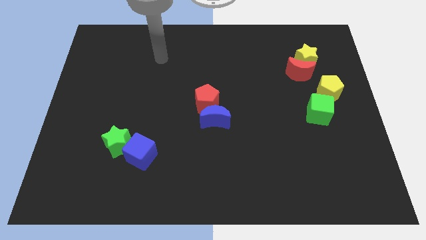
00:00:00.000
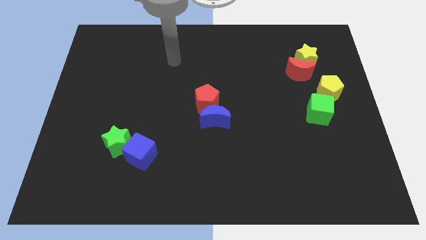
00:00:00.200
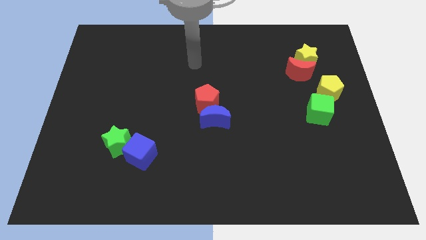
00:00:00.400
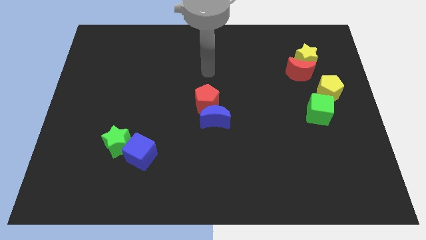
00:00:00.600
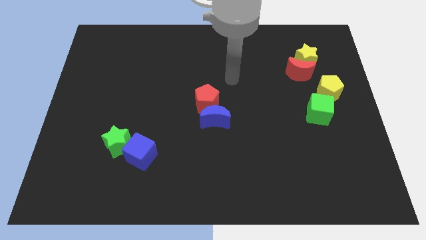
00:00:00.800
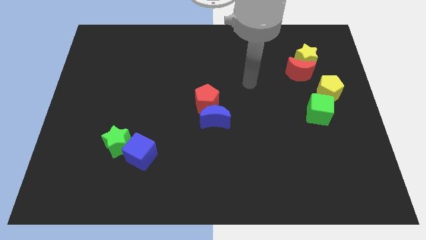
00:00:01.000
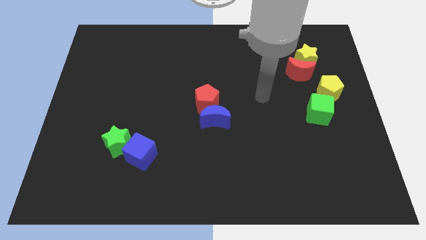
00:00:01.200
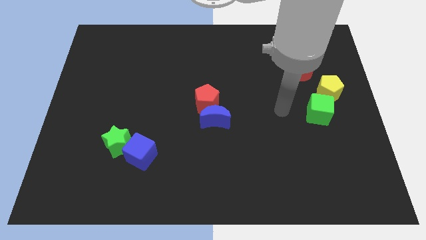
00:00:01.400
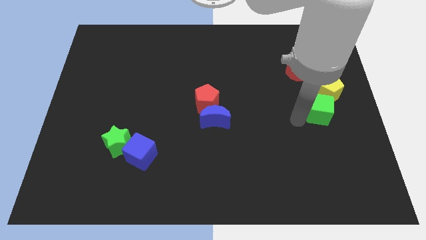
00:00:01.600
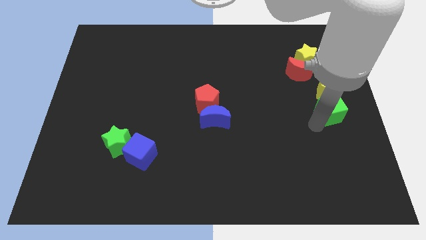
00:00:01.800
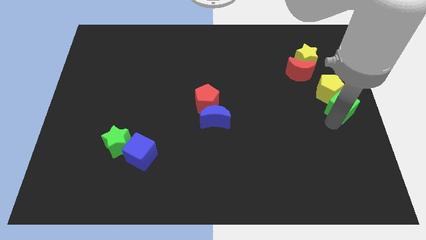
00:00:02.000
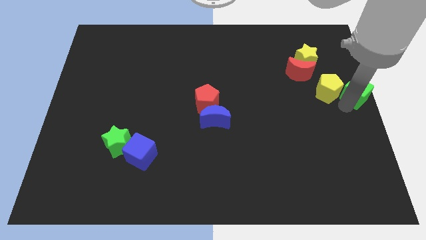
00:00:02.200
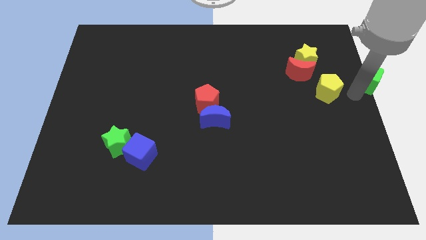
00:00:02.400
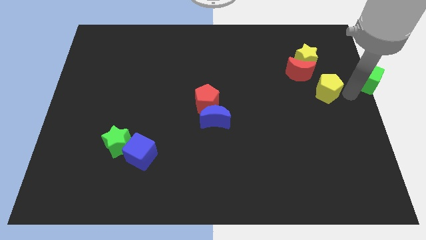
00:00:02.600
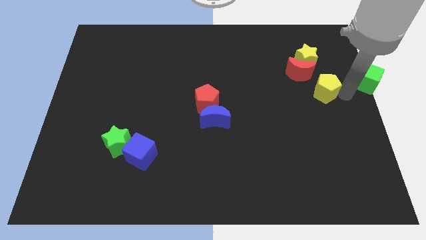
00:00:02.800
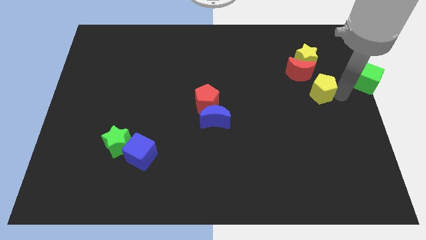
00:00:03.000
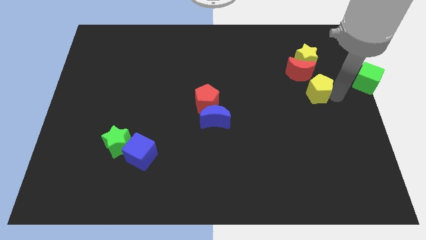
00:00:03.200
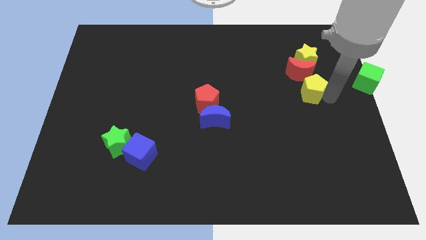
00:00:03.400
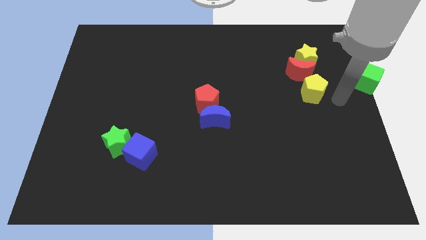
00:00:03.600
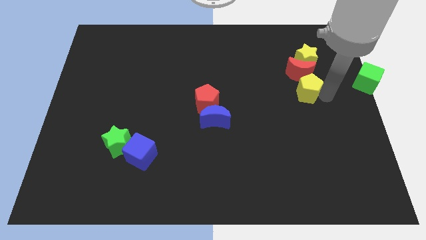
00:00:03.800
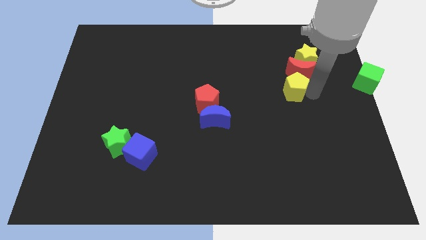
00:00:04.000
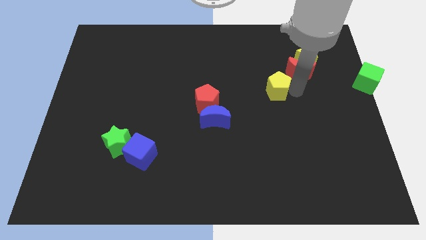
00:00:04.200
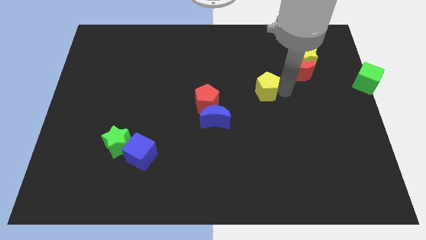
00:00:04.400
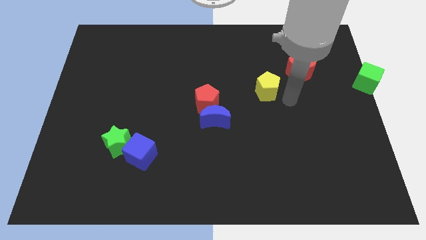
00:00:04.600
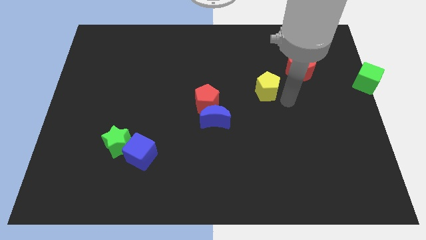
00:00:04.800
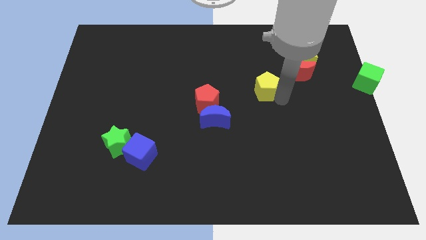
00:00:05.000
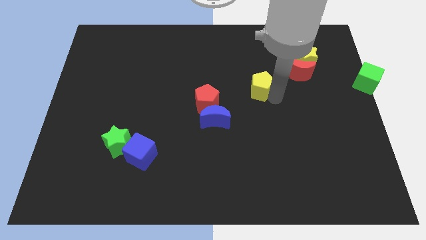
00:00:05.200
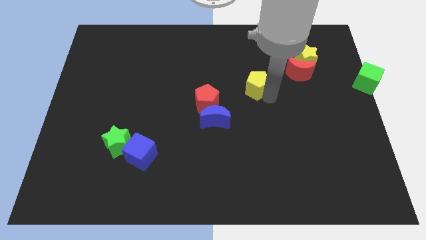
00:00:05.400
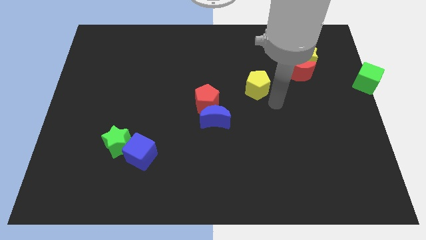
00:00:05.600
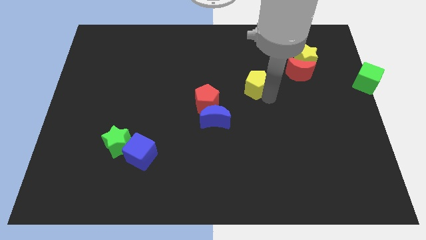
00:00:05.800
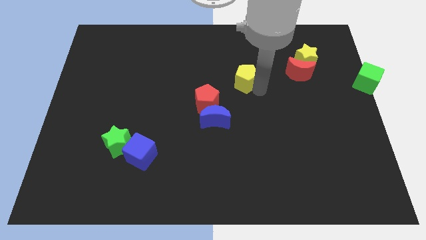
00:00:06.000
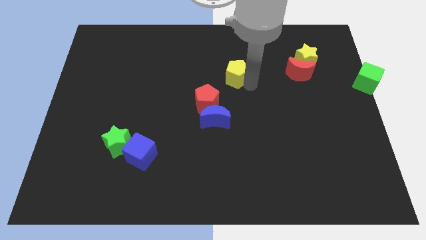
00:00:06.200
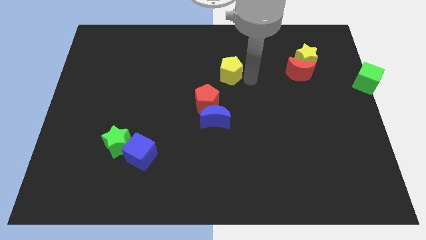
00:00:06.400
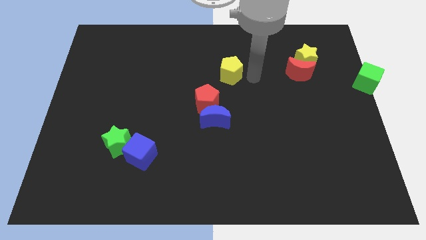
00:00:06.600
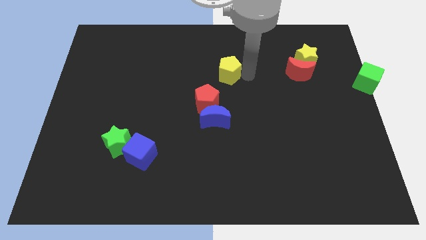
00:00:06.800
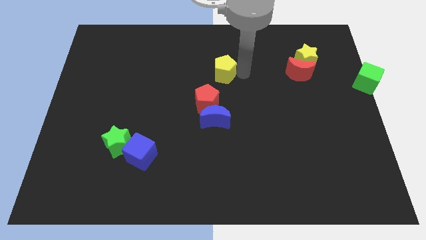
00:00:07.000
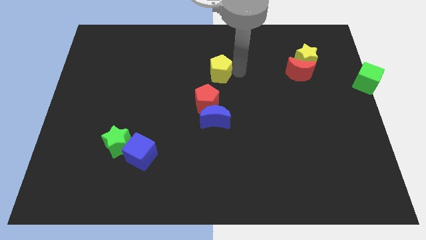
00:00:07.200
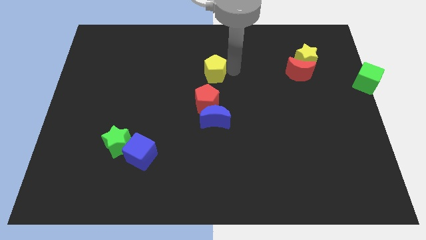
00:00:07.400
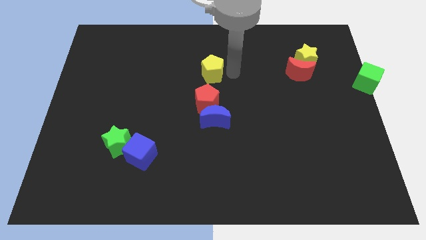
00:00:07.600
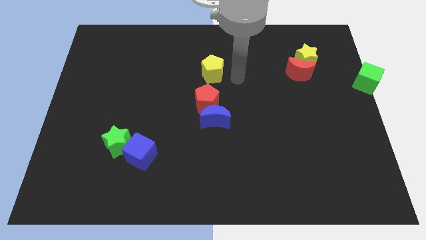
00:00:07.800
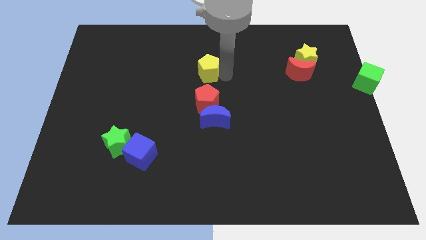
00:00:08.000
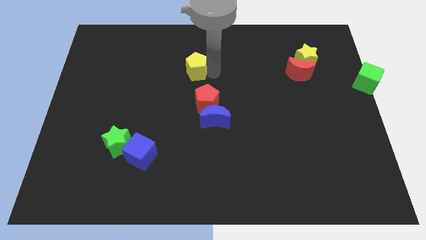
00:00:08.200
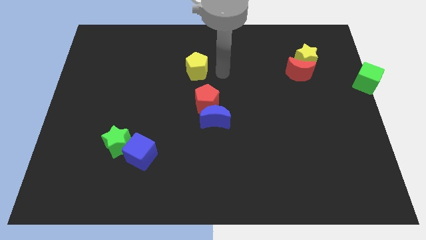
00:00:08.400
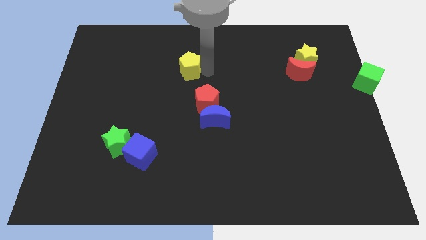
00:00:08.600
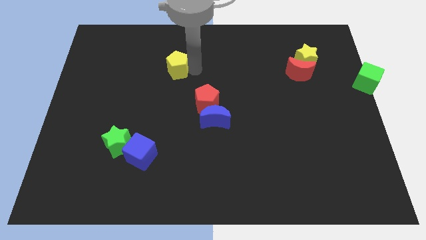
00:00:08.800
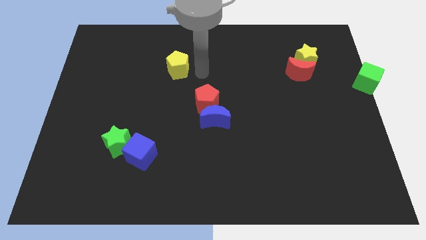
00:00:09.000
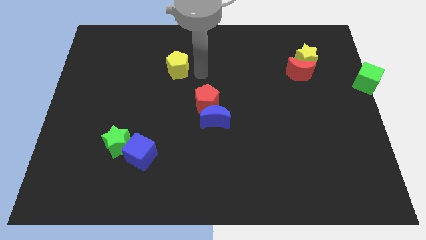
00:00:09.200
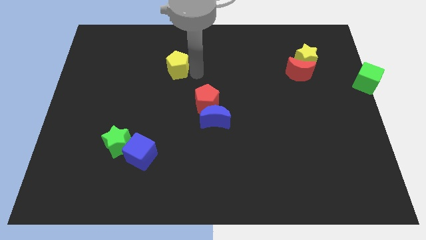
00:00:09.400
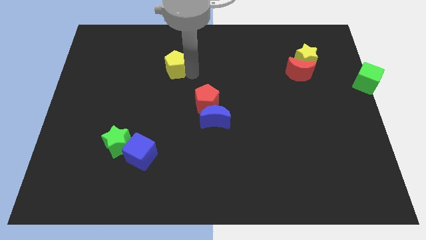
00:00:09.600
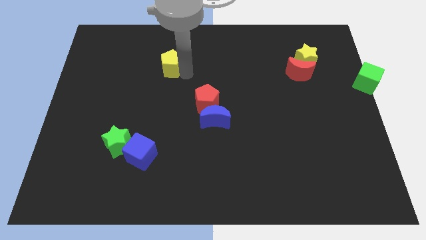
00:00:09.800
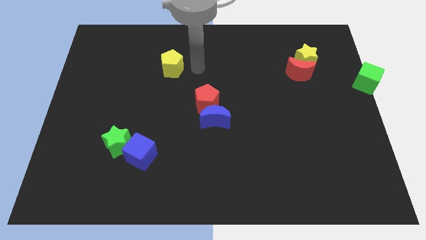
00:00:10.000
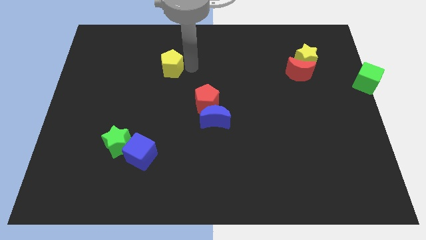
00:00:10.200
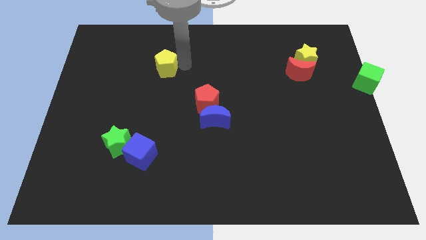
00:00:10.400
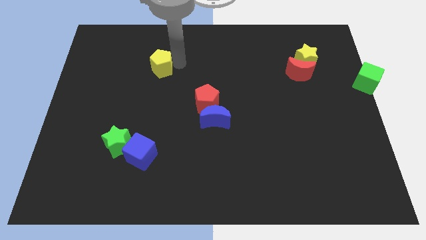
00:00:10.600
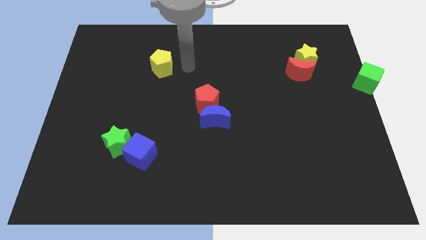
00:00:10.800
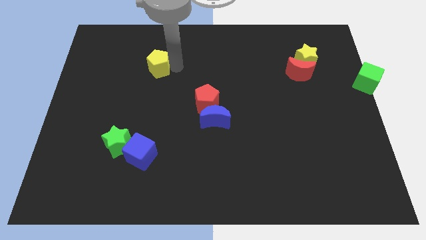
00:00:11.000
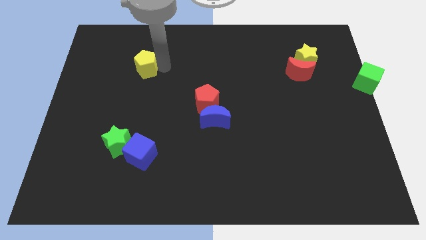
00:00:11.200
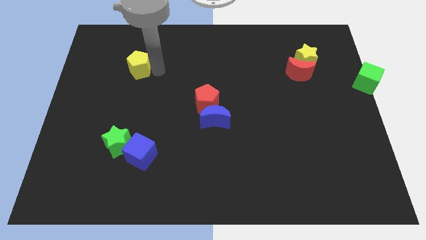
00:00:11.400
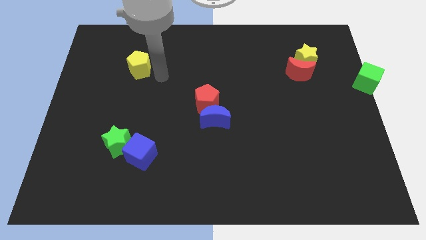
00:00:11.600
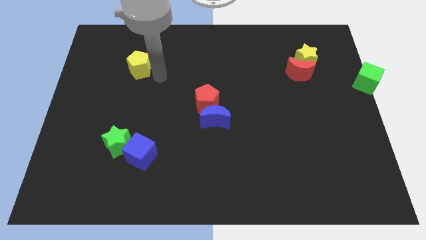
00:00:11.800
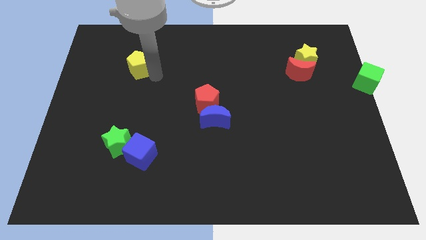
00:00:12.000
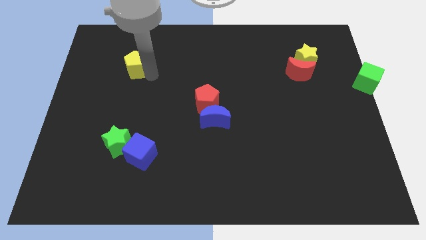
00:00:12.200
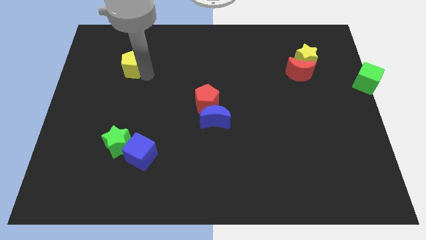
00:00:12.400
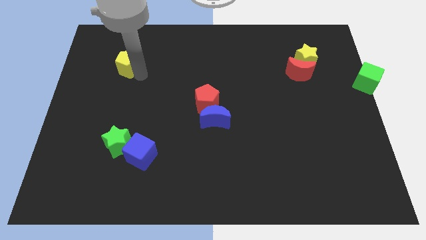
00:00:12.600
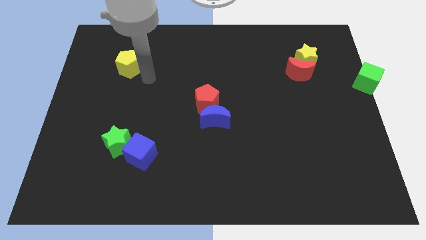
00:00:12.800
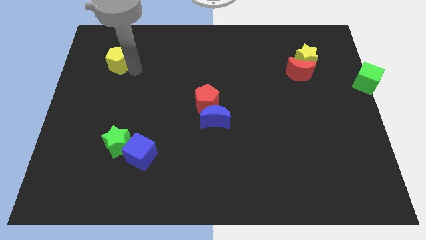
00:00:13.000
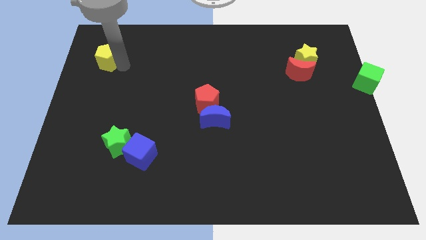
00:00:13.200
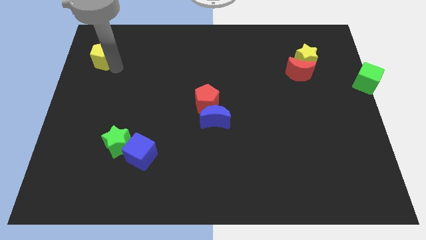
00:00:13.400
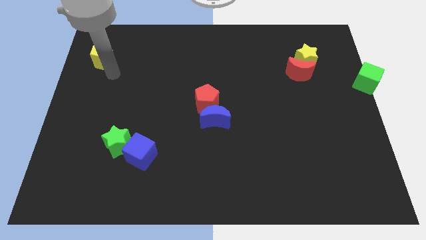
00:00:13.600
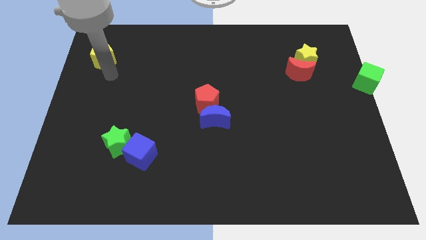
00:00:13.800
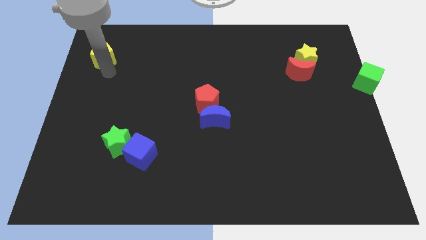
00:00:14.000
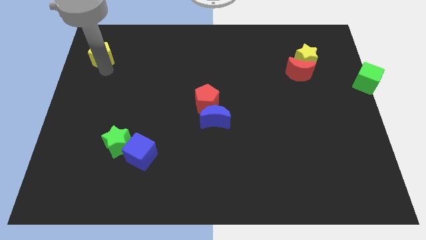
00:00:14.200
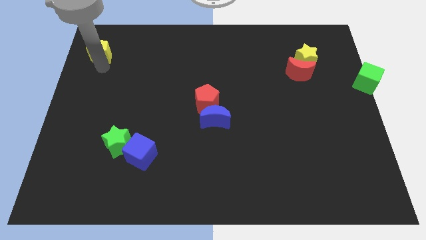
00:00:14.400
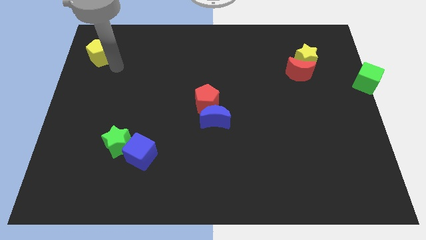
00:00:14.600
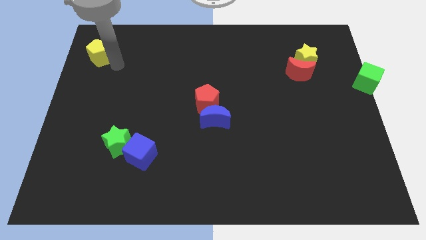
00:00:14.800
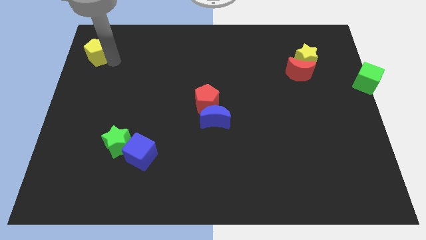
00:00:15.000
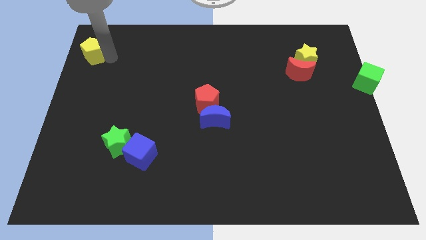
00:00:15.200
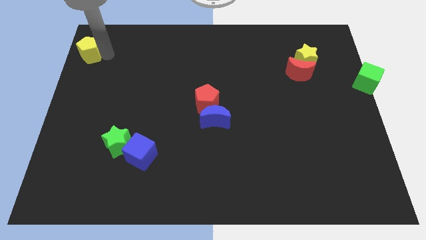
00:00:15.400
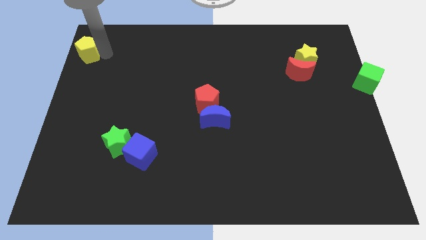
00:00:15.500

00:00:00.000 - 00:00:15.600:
put the yellow pentagon to the top left corner
